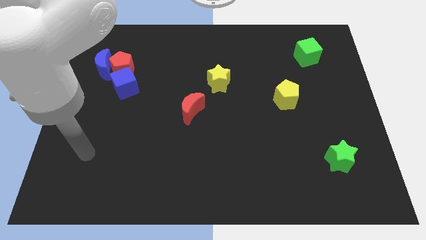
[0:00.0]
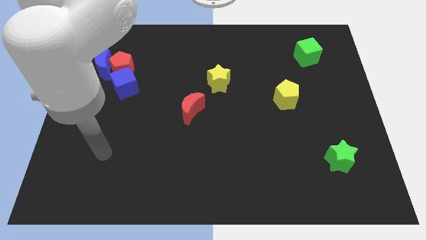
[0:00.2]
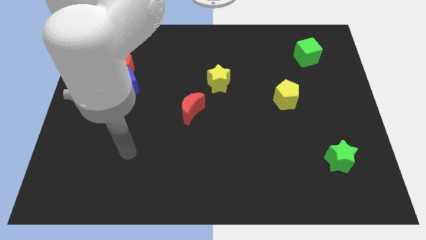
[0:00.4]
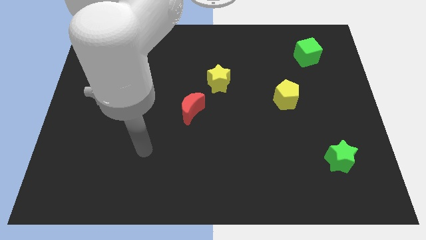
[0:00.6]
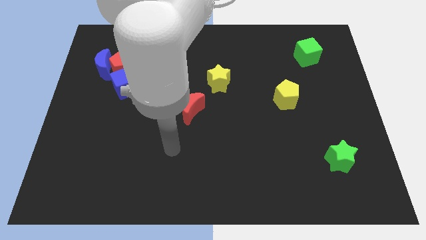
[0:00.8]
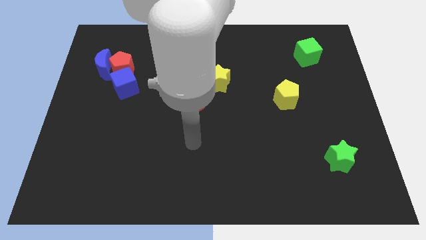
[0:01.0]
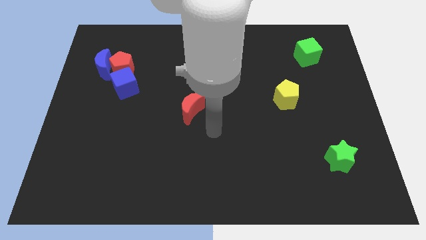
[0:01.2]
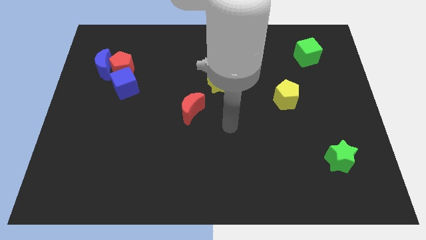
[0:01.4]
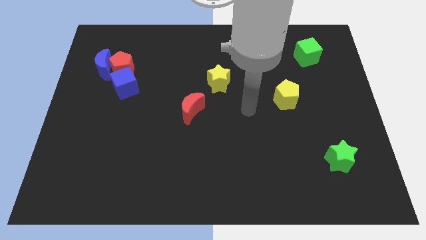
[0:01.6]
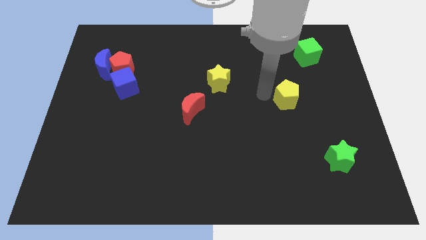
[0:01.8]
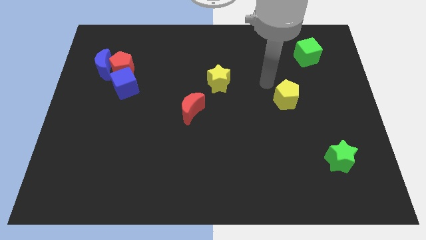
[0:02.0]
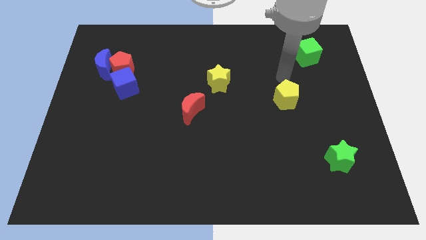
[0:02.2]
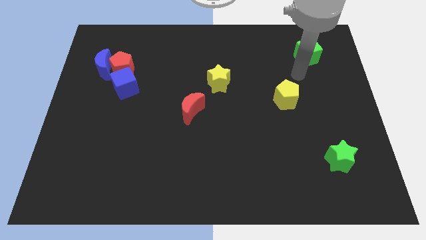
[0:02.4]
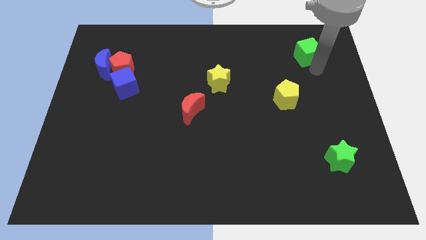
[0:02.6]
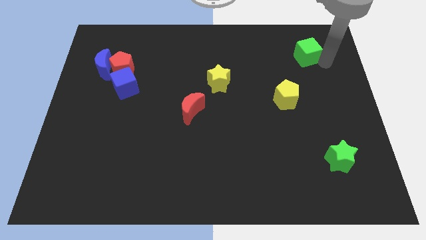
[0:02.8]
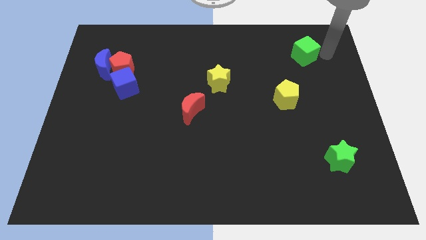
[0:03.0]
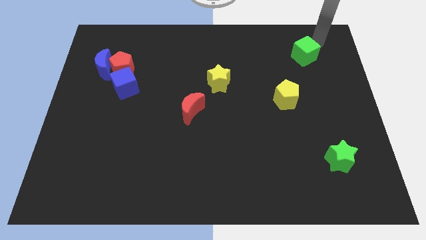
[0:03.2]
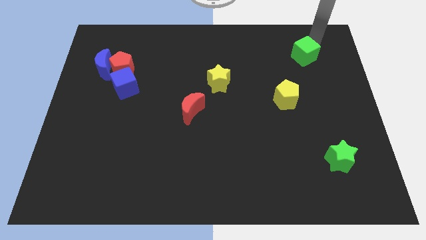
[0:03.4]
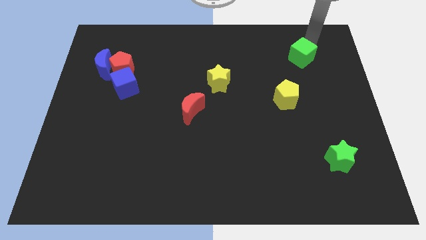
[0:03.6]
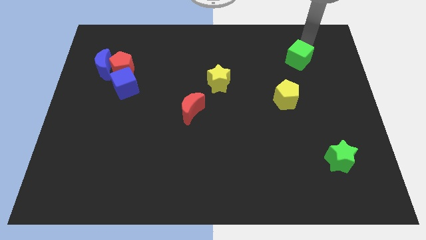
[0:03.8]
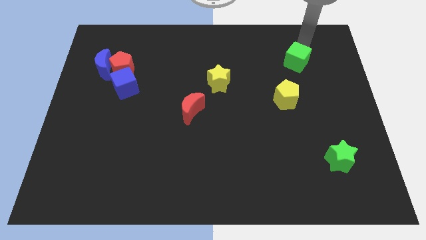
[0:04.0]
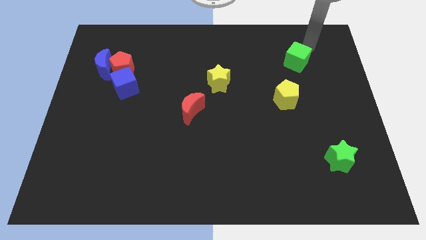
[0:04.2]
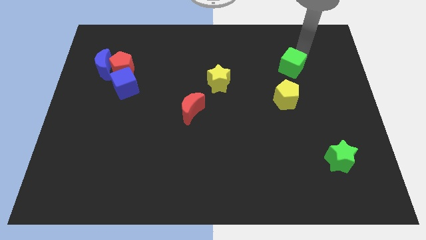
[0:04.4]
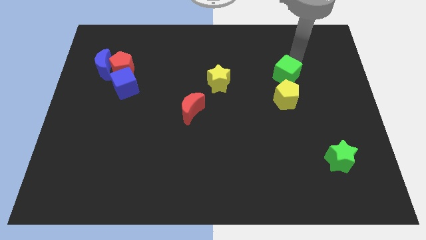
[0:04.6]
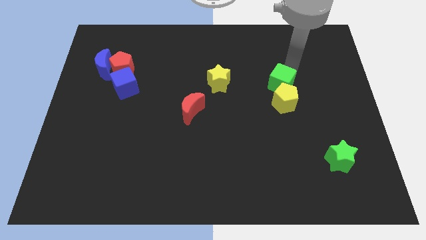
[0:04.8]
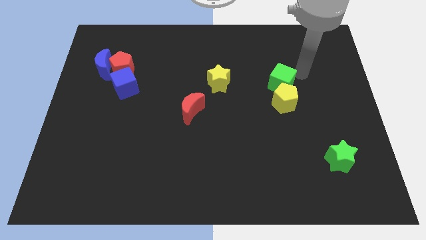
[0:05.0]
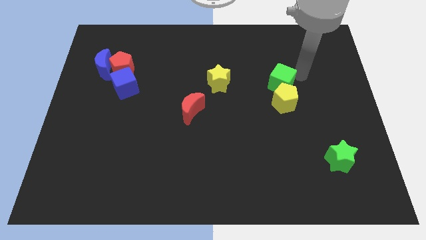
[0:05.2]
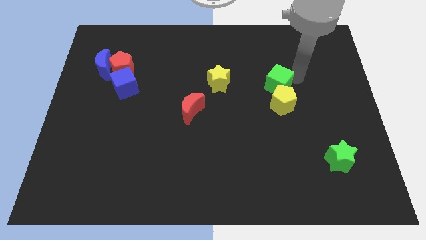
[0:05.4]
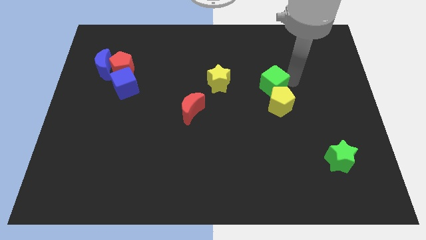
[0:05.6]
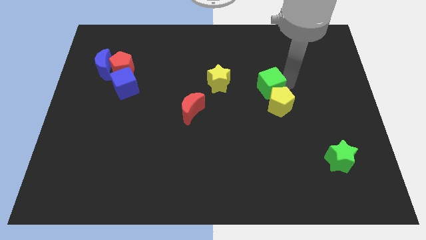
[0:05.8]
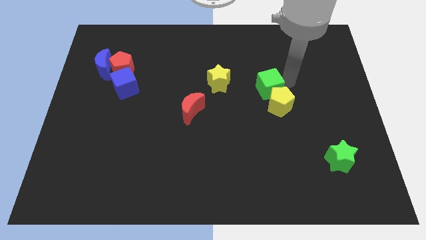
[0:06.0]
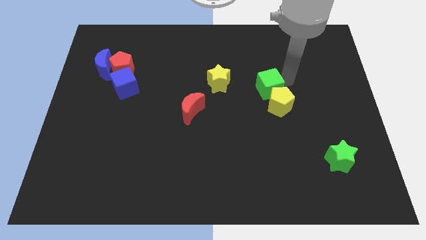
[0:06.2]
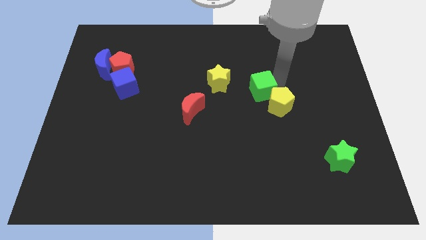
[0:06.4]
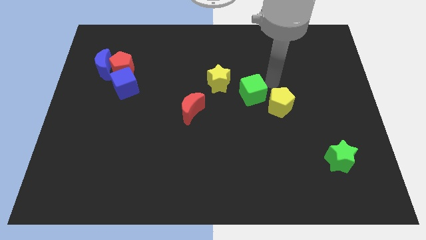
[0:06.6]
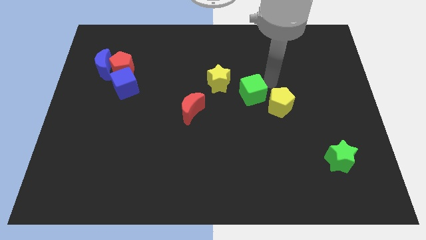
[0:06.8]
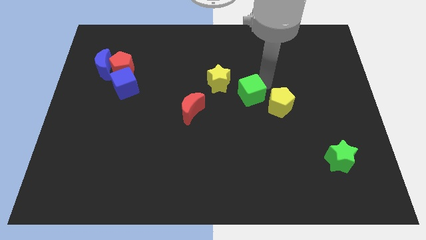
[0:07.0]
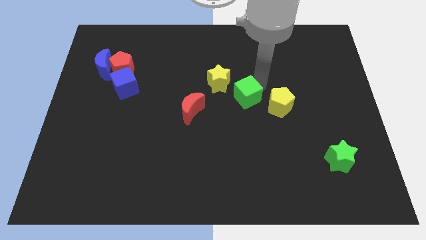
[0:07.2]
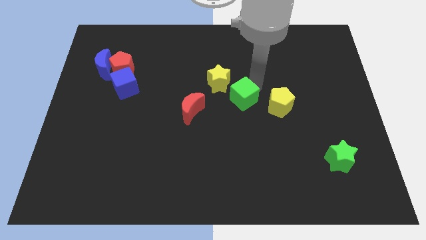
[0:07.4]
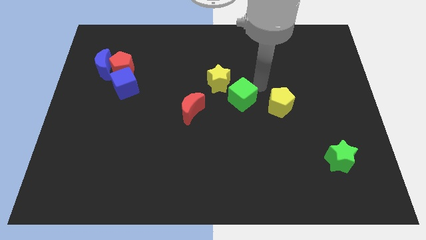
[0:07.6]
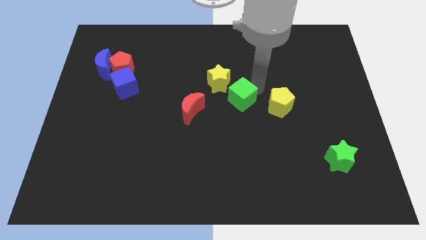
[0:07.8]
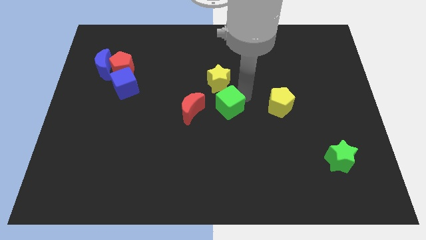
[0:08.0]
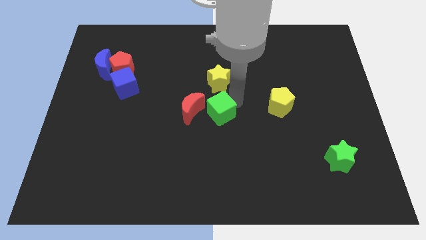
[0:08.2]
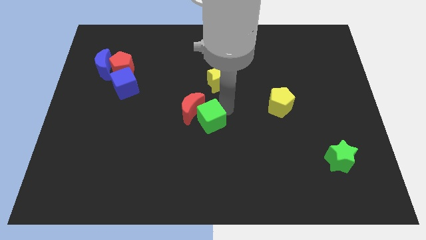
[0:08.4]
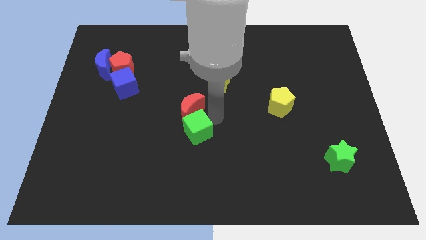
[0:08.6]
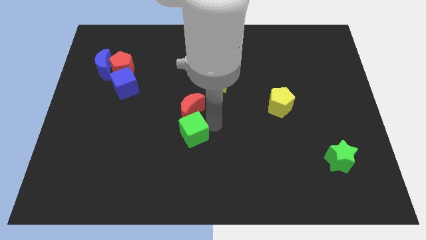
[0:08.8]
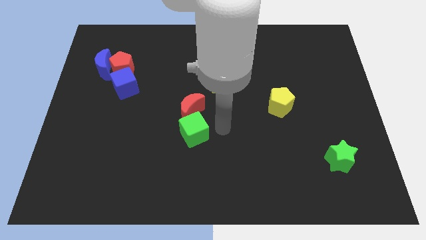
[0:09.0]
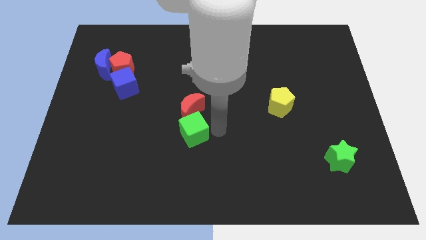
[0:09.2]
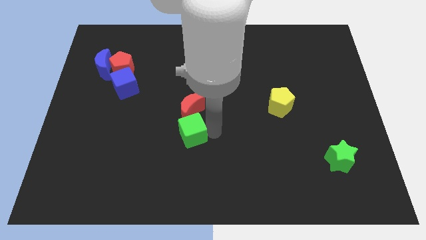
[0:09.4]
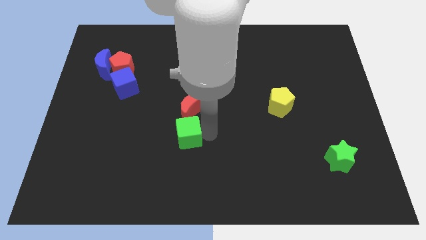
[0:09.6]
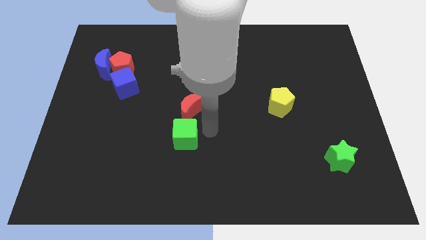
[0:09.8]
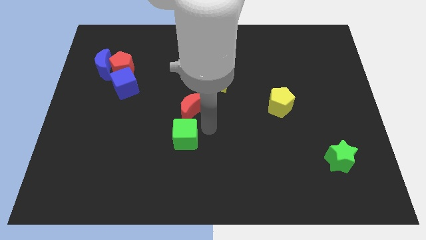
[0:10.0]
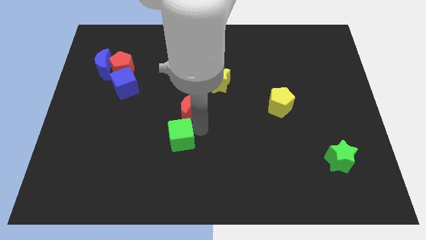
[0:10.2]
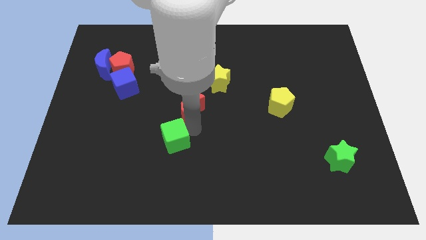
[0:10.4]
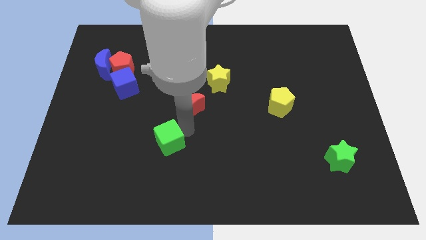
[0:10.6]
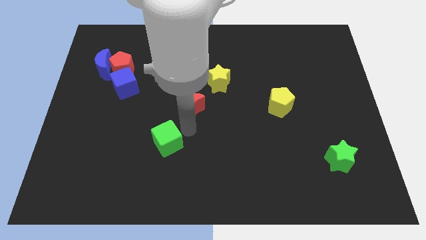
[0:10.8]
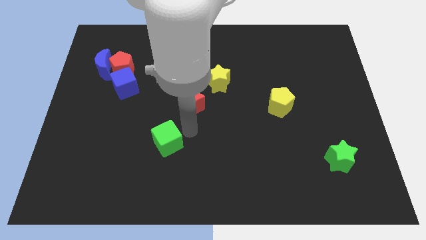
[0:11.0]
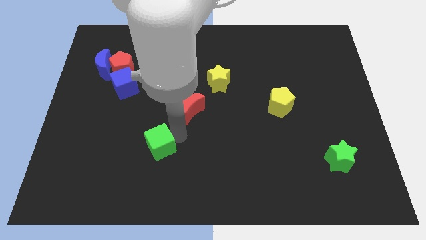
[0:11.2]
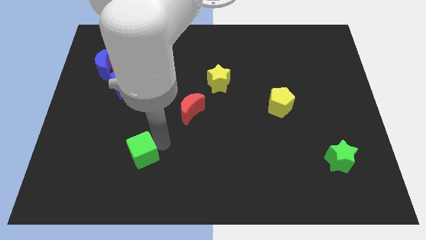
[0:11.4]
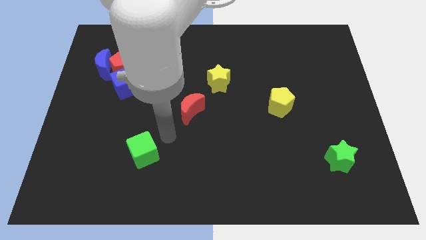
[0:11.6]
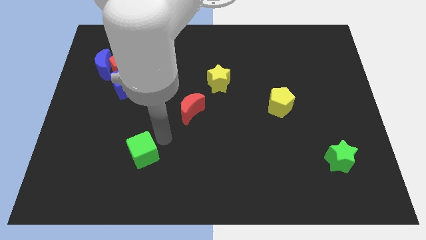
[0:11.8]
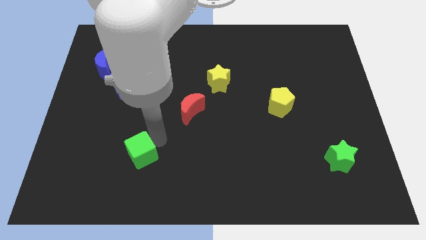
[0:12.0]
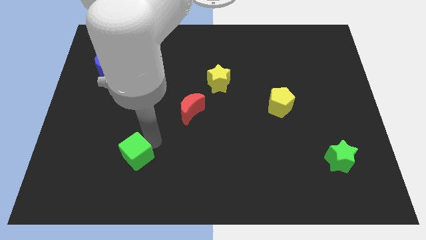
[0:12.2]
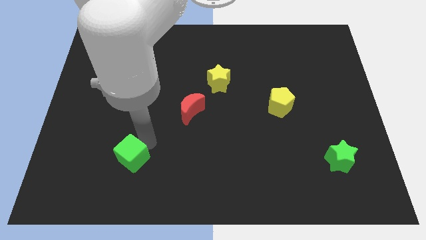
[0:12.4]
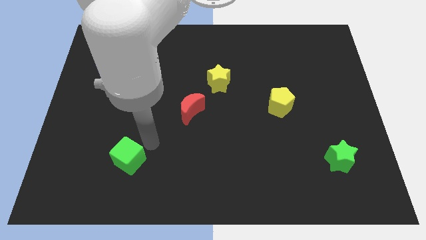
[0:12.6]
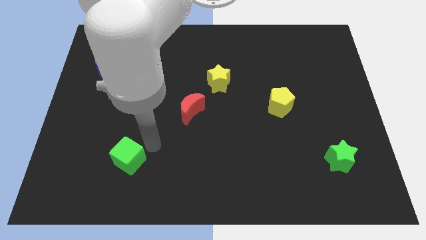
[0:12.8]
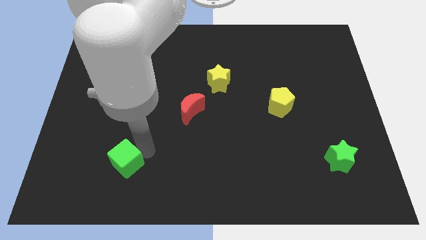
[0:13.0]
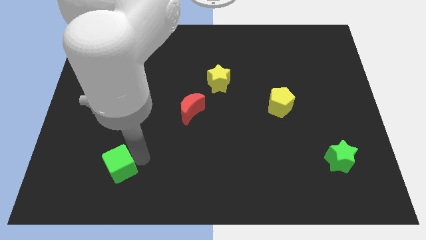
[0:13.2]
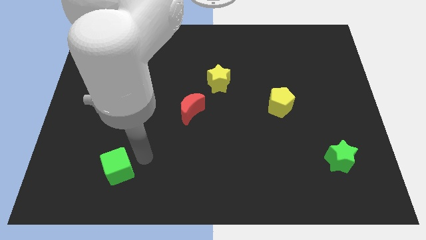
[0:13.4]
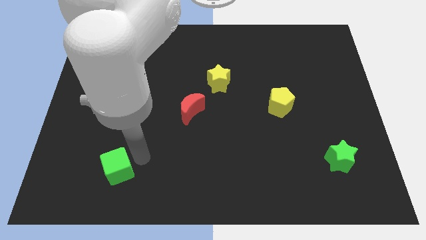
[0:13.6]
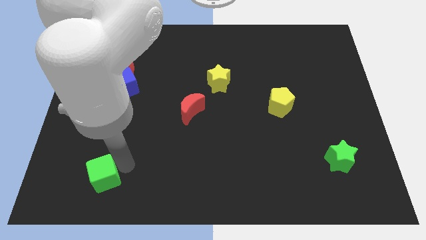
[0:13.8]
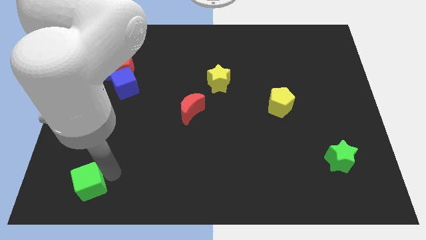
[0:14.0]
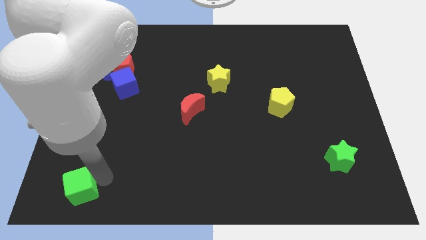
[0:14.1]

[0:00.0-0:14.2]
slide the green cube to the bottom left of the board
